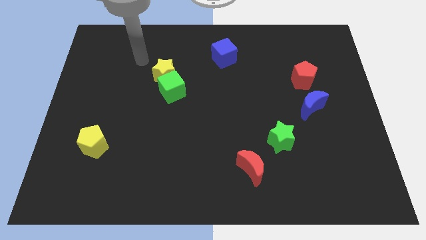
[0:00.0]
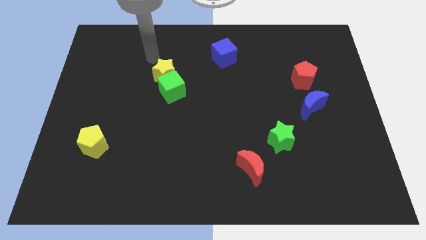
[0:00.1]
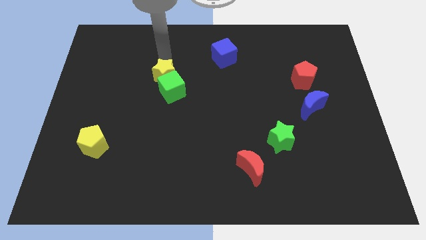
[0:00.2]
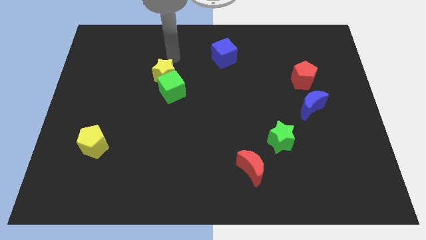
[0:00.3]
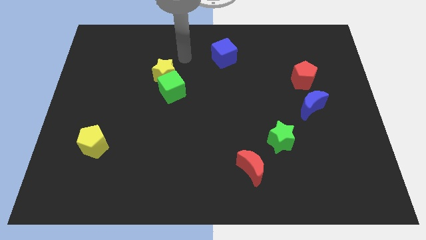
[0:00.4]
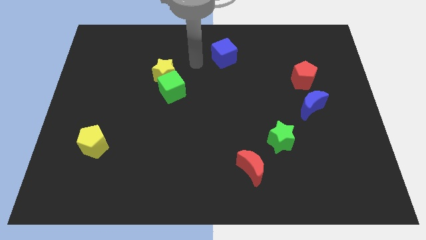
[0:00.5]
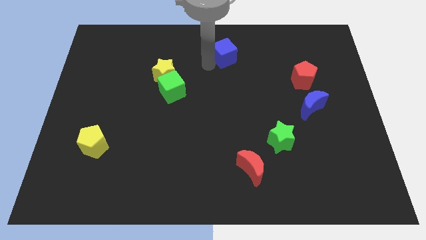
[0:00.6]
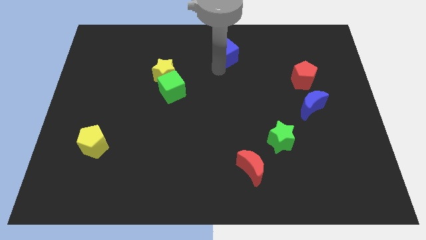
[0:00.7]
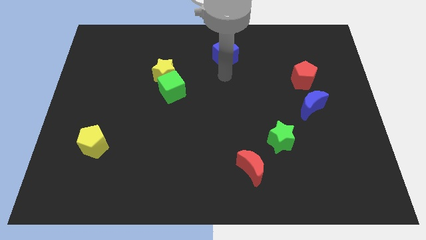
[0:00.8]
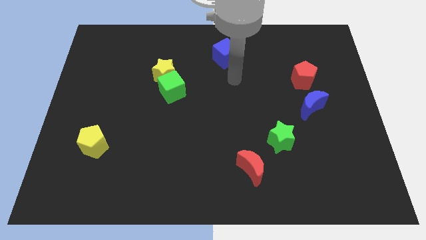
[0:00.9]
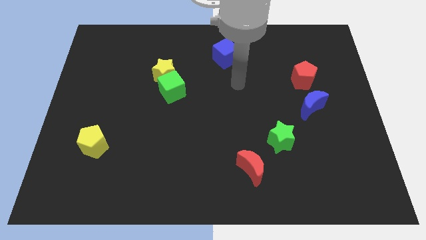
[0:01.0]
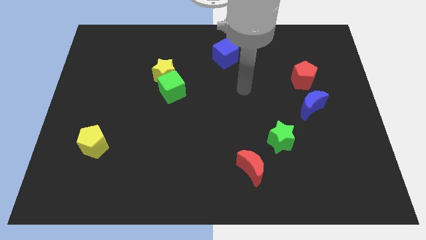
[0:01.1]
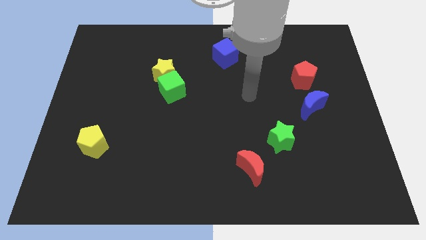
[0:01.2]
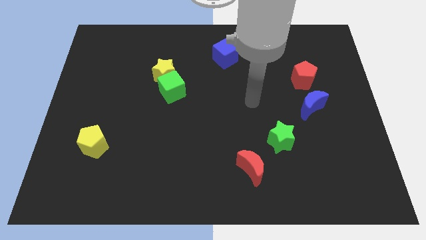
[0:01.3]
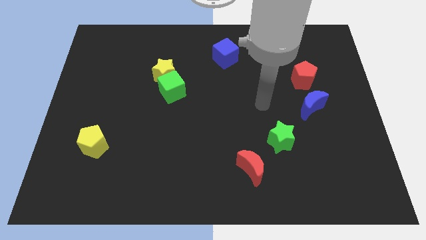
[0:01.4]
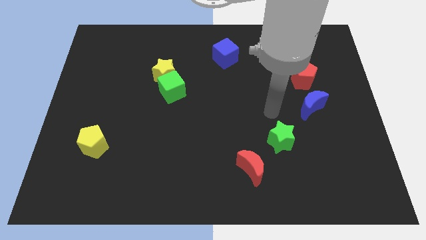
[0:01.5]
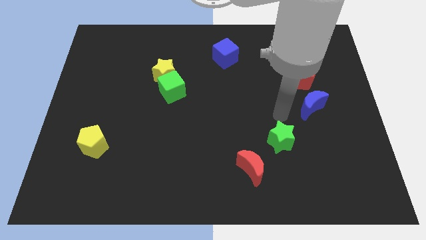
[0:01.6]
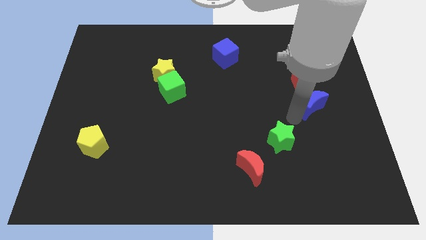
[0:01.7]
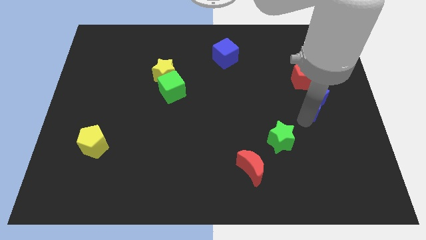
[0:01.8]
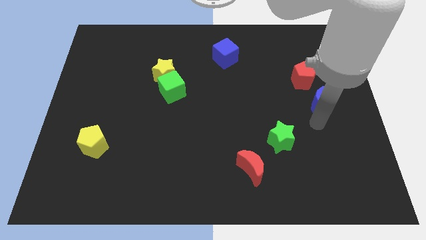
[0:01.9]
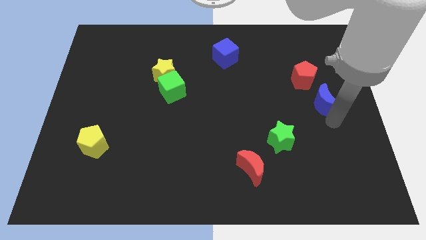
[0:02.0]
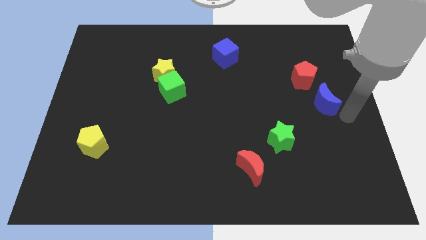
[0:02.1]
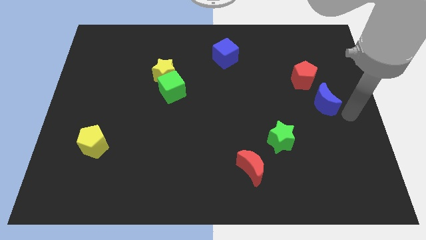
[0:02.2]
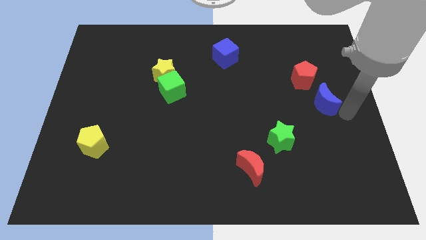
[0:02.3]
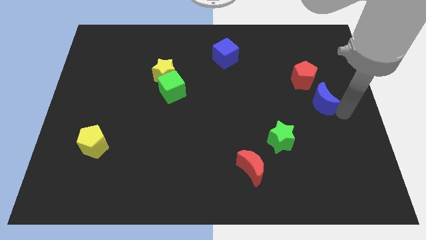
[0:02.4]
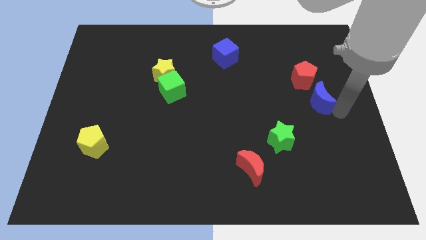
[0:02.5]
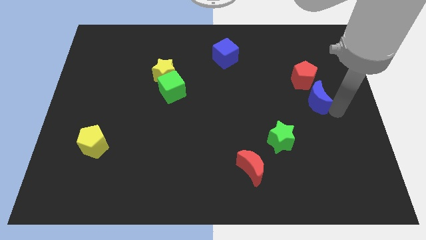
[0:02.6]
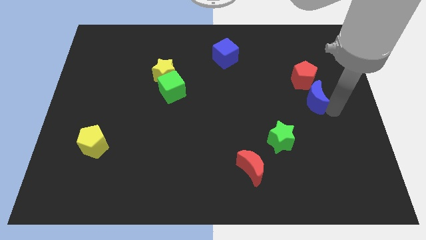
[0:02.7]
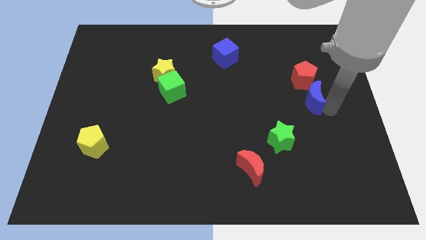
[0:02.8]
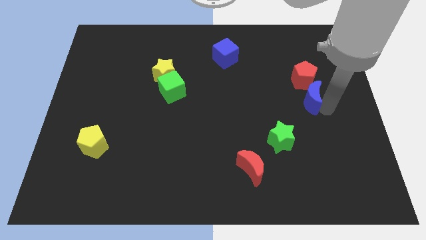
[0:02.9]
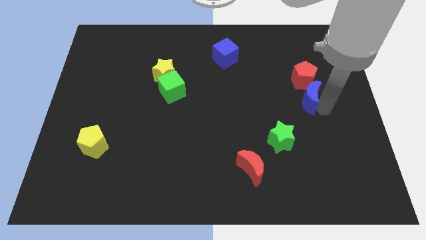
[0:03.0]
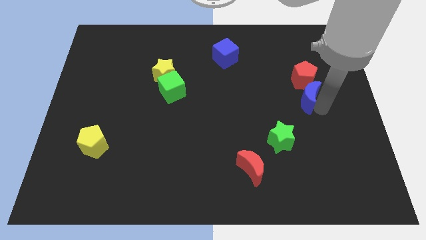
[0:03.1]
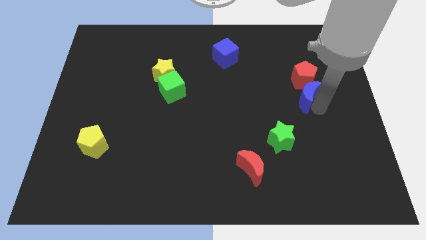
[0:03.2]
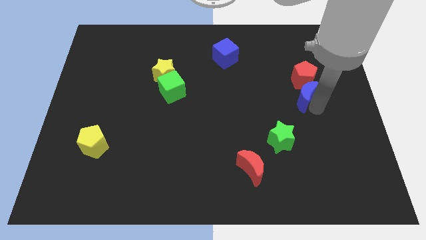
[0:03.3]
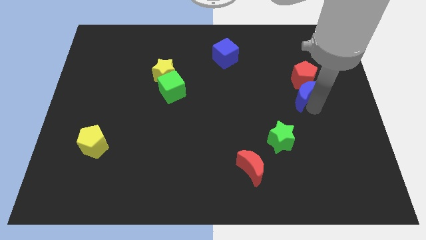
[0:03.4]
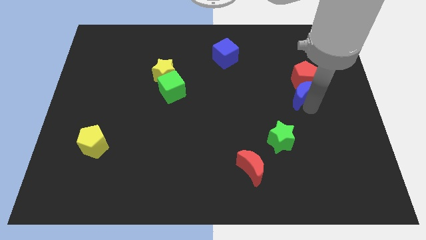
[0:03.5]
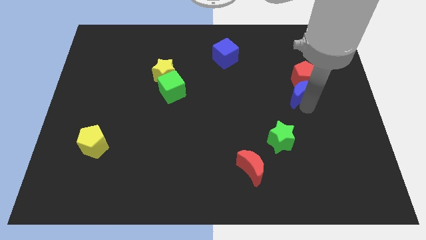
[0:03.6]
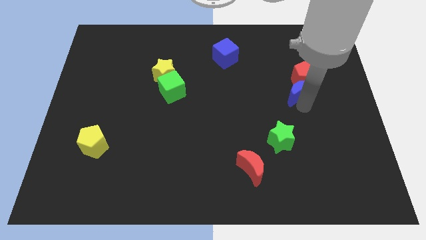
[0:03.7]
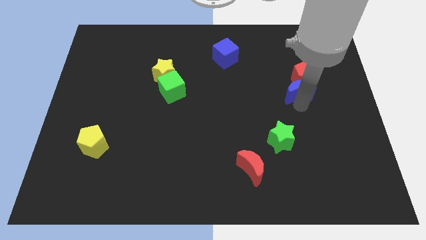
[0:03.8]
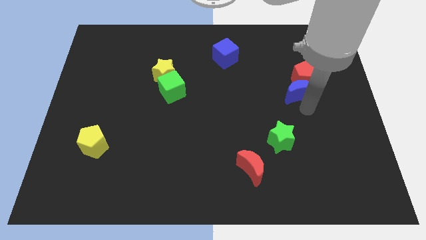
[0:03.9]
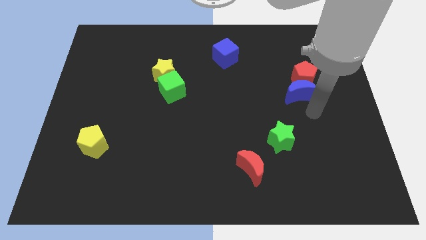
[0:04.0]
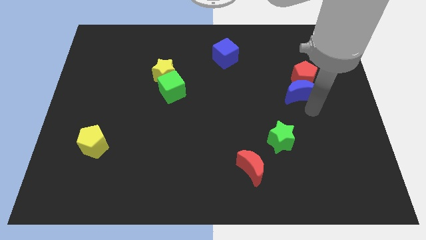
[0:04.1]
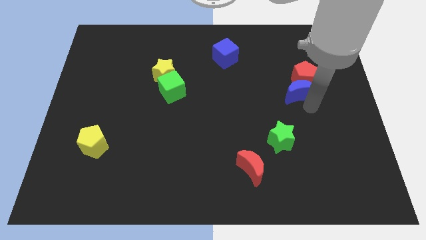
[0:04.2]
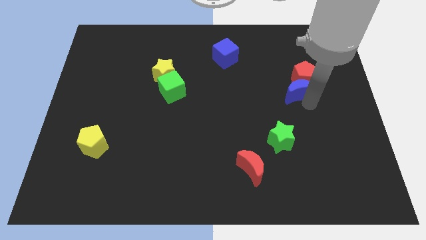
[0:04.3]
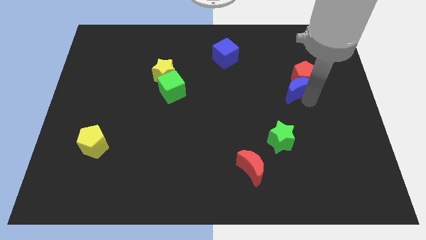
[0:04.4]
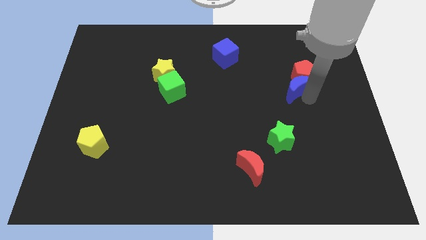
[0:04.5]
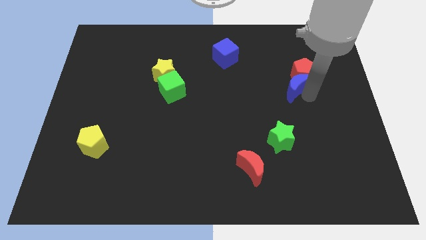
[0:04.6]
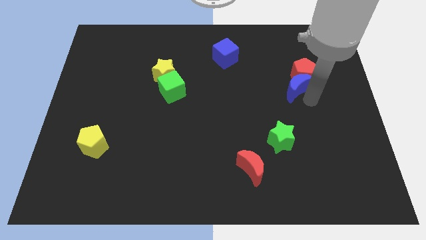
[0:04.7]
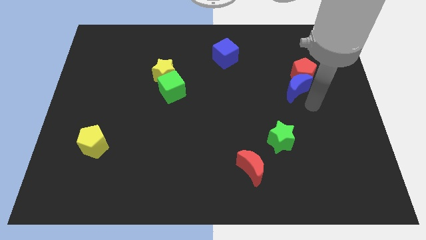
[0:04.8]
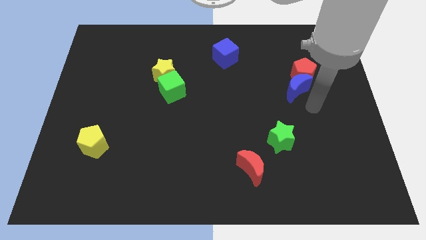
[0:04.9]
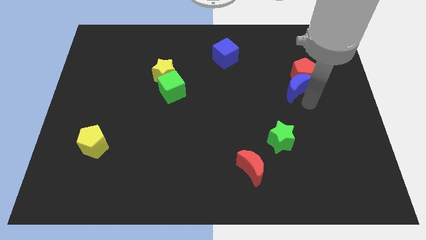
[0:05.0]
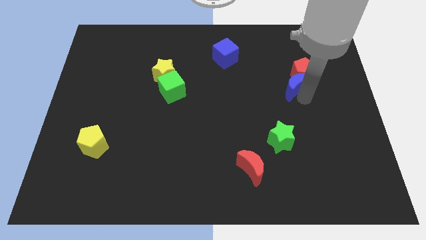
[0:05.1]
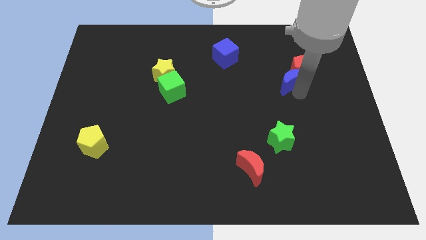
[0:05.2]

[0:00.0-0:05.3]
slightly push the blue moon upwards and to the left diagonally

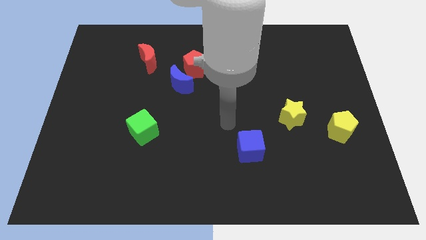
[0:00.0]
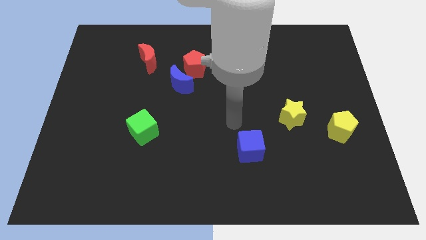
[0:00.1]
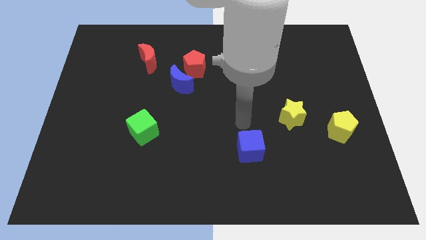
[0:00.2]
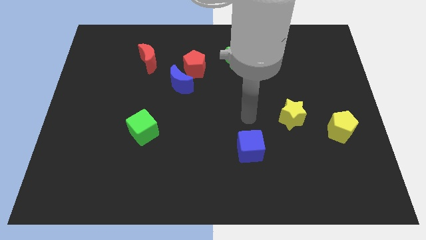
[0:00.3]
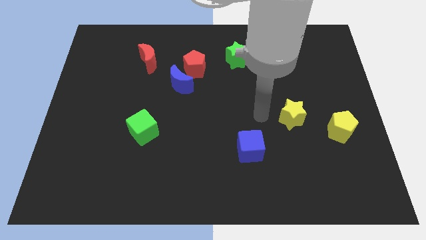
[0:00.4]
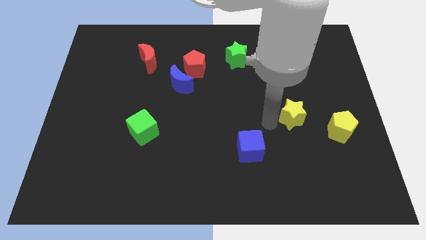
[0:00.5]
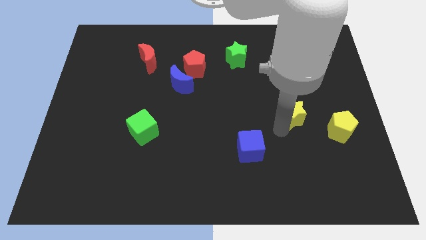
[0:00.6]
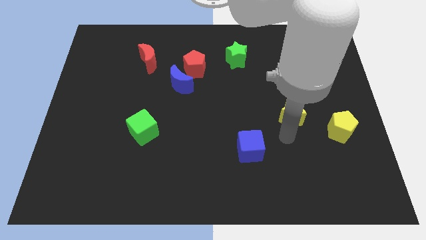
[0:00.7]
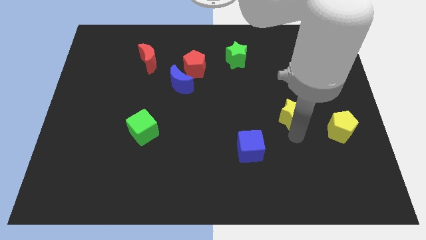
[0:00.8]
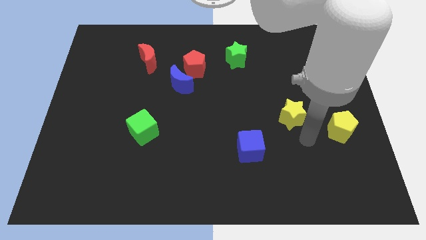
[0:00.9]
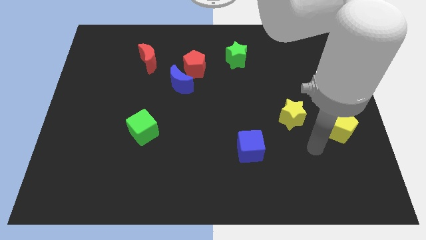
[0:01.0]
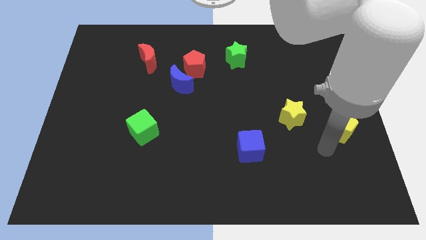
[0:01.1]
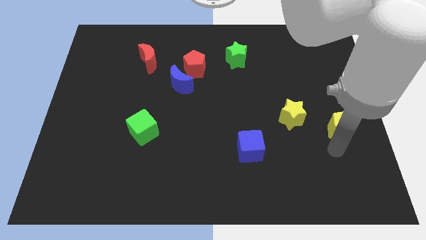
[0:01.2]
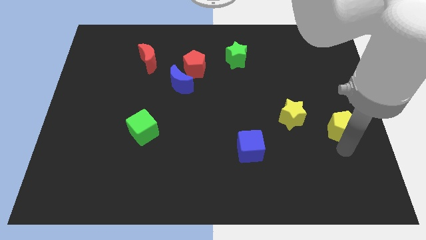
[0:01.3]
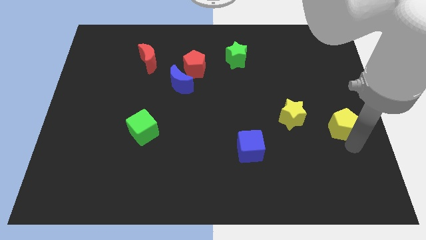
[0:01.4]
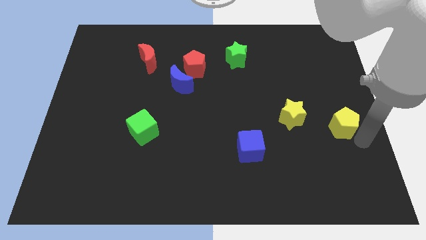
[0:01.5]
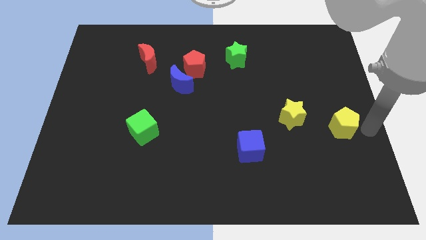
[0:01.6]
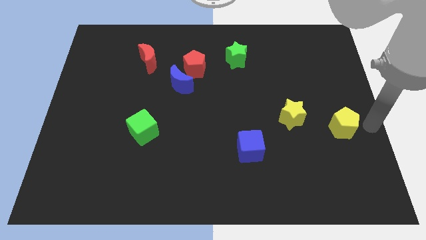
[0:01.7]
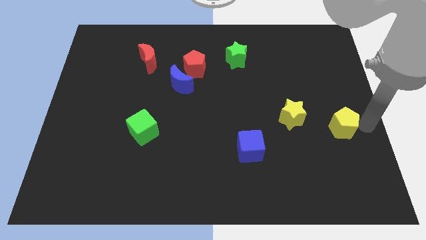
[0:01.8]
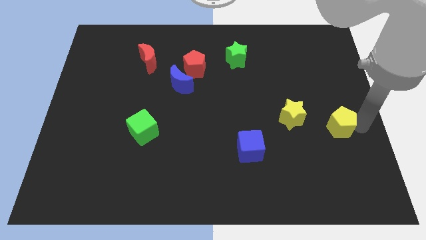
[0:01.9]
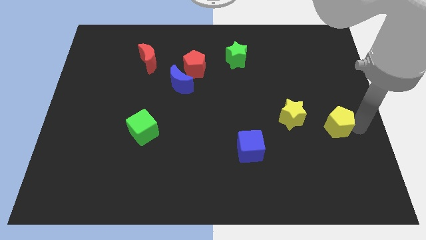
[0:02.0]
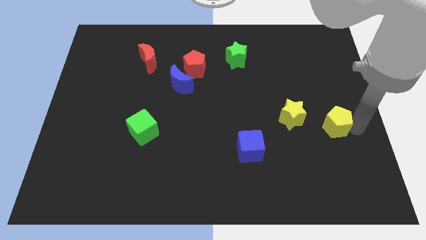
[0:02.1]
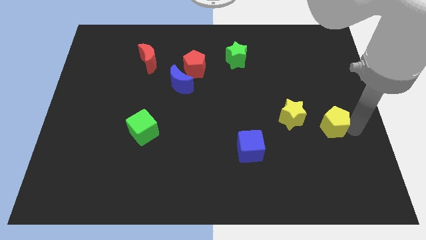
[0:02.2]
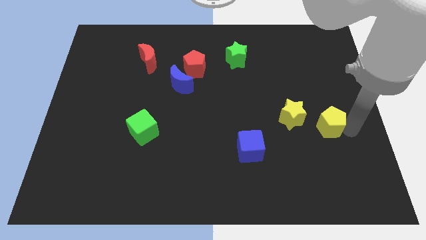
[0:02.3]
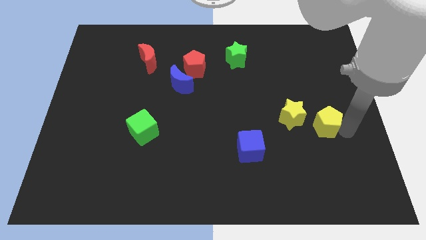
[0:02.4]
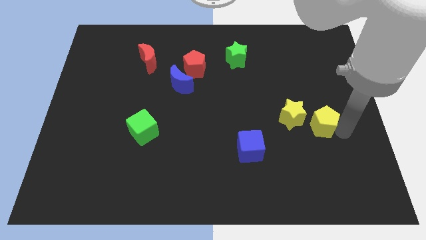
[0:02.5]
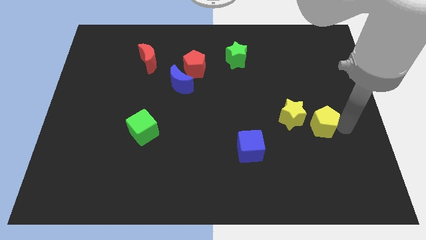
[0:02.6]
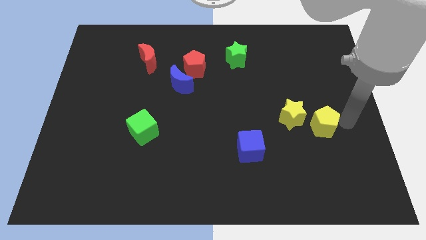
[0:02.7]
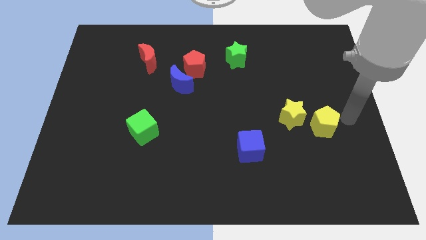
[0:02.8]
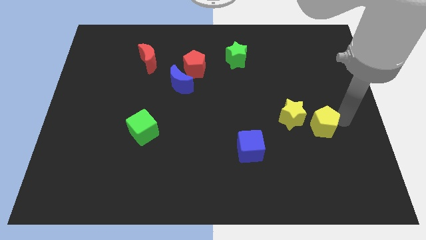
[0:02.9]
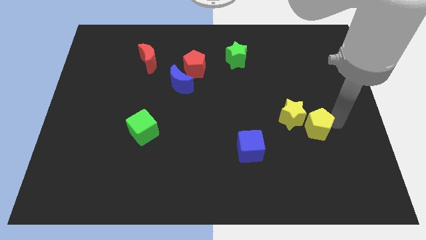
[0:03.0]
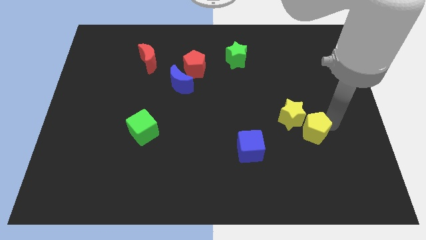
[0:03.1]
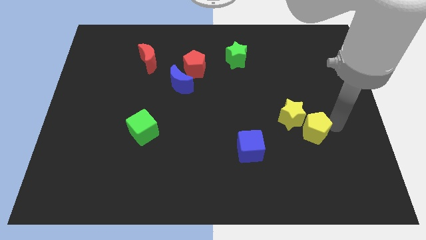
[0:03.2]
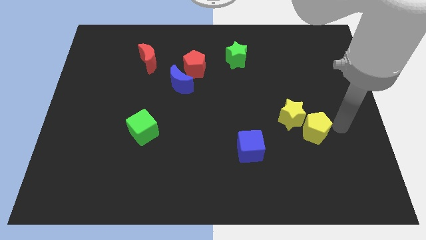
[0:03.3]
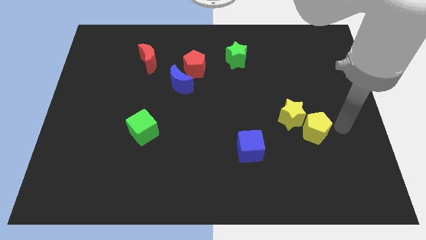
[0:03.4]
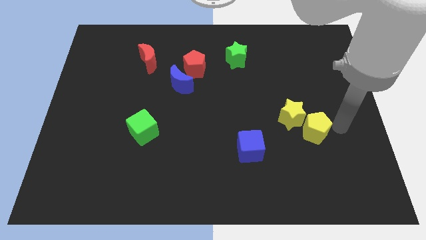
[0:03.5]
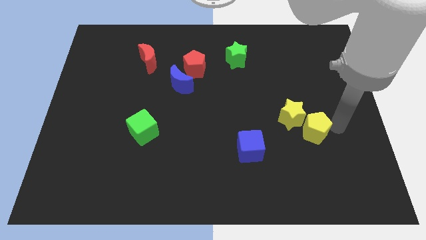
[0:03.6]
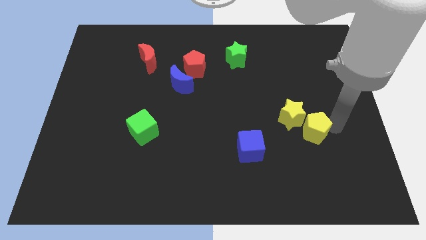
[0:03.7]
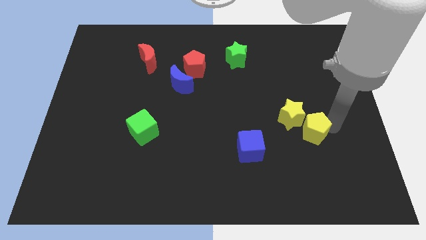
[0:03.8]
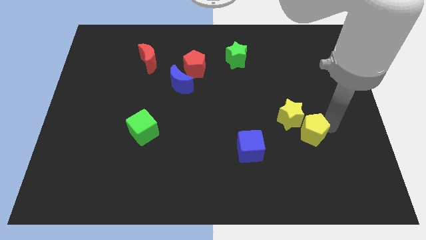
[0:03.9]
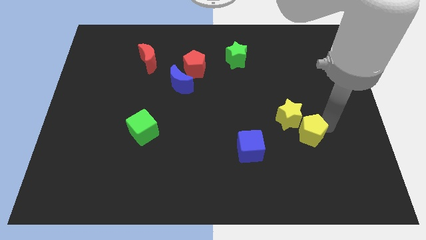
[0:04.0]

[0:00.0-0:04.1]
slightly slide the yellow pentagon to the left
